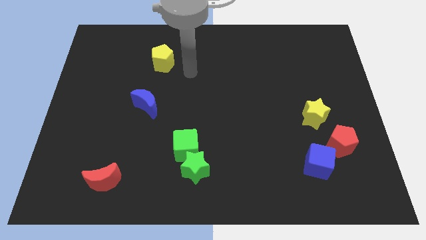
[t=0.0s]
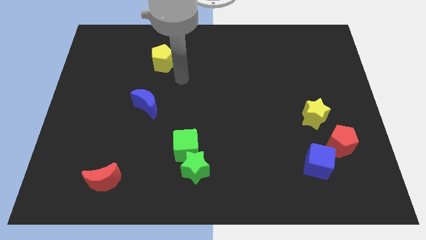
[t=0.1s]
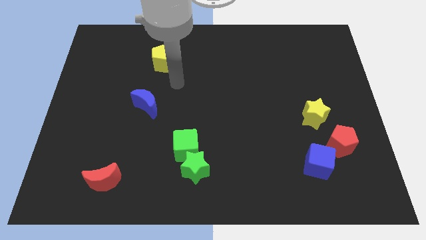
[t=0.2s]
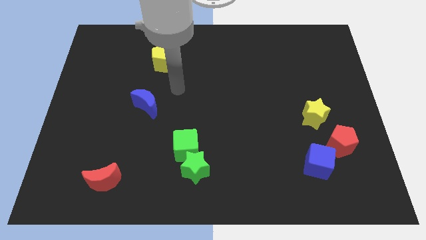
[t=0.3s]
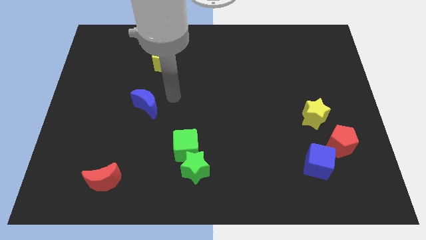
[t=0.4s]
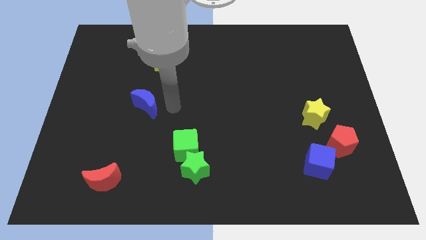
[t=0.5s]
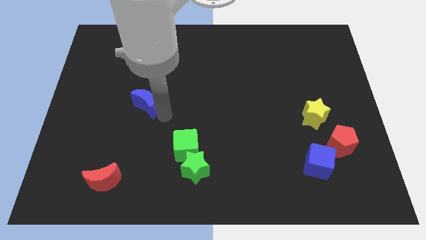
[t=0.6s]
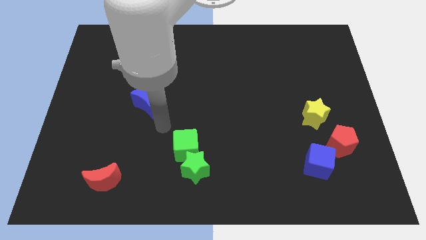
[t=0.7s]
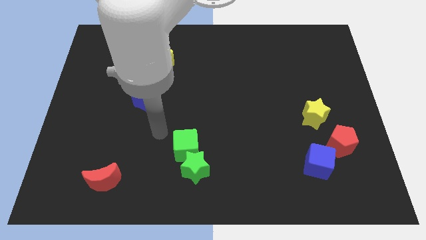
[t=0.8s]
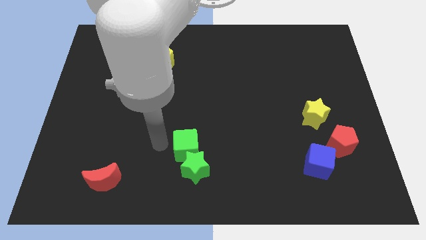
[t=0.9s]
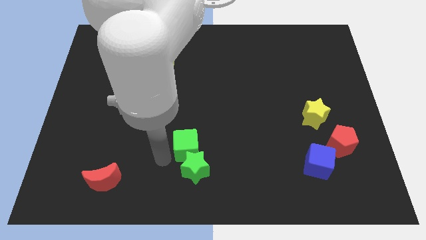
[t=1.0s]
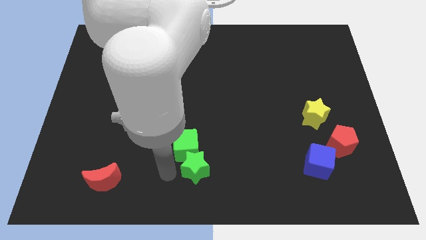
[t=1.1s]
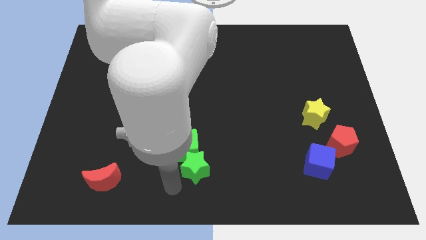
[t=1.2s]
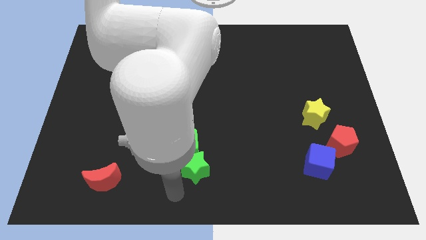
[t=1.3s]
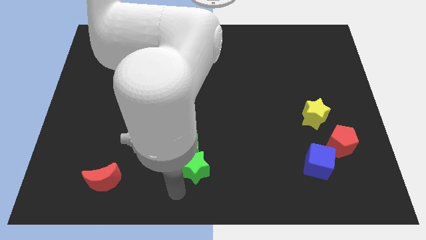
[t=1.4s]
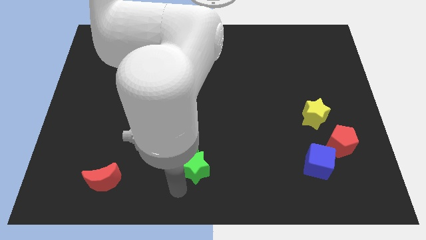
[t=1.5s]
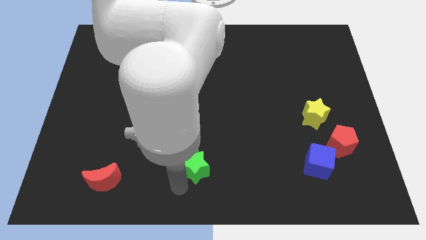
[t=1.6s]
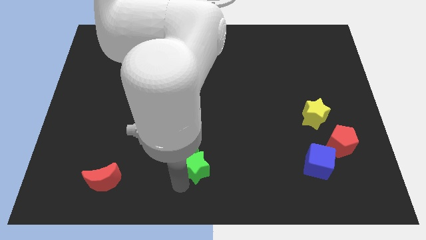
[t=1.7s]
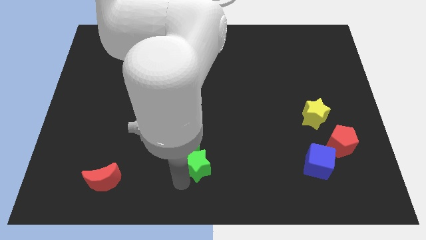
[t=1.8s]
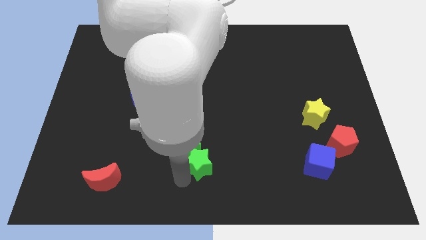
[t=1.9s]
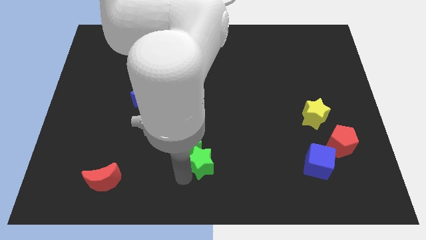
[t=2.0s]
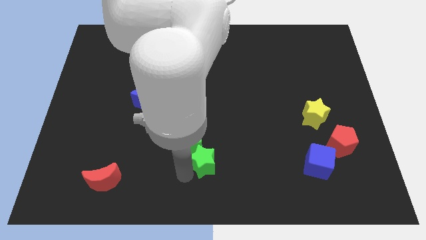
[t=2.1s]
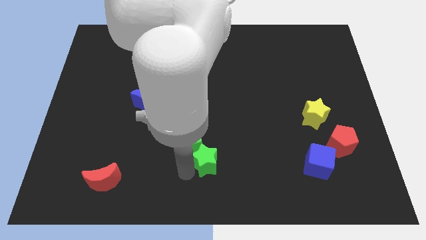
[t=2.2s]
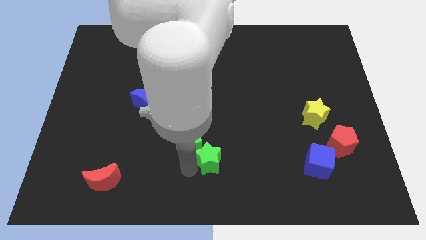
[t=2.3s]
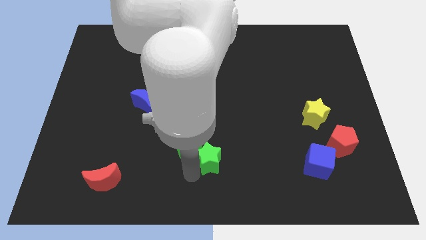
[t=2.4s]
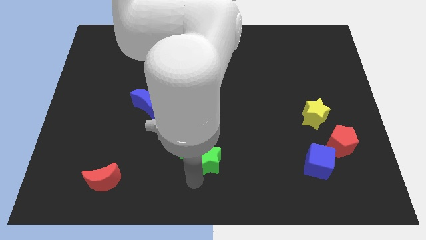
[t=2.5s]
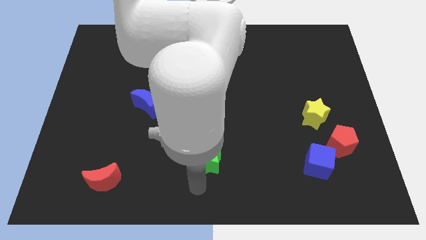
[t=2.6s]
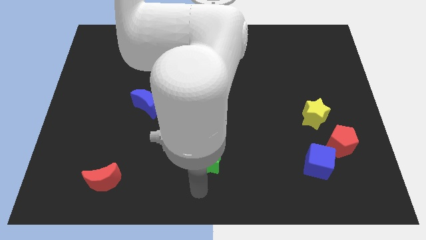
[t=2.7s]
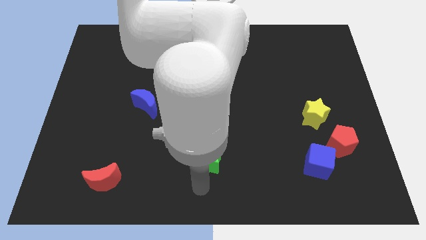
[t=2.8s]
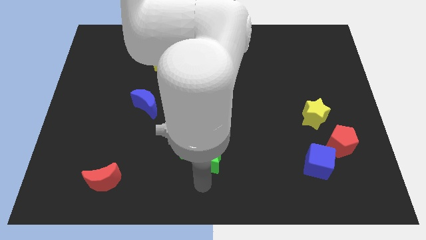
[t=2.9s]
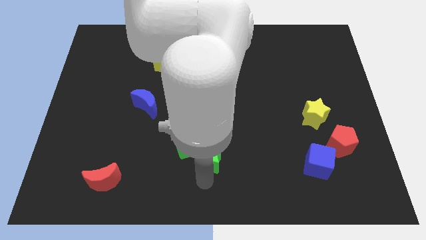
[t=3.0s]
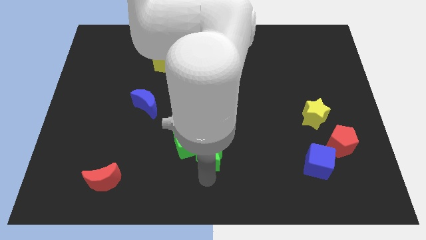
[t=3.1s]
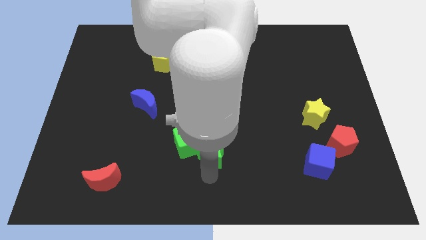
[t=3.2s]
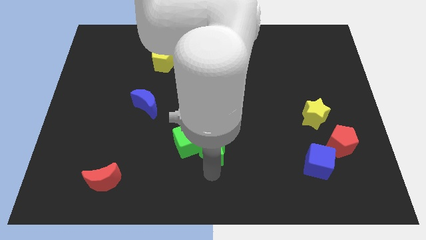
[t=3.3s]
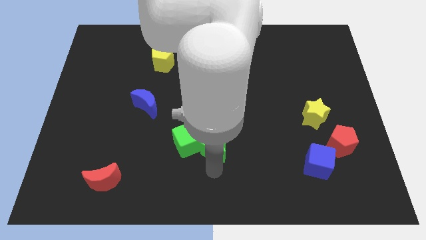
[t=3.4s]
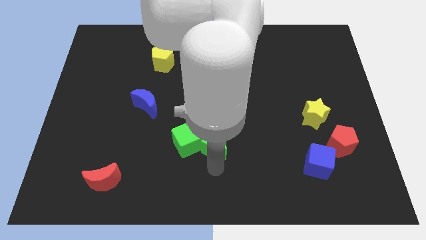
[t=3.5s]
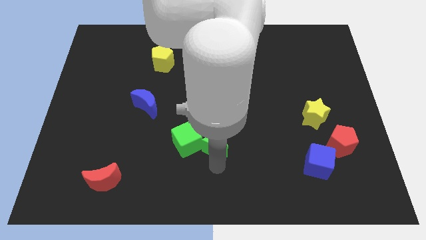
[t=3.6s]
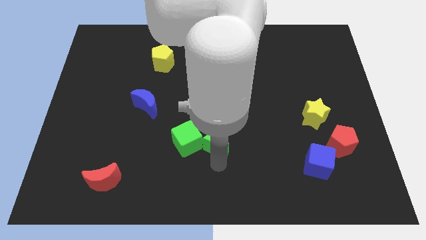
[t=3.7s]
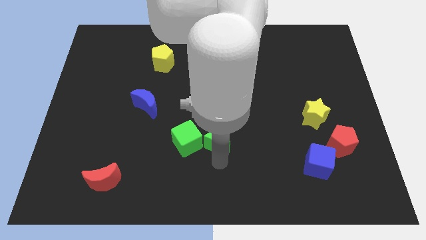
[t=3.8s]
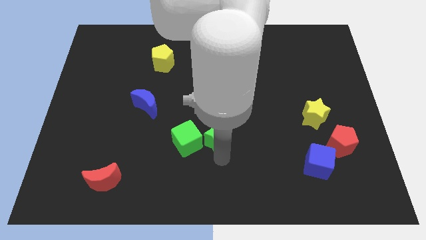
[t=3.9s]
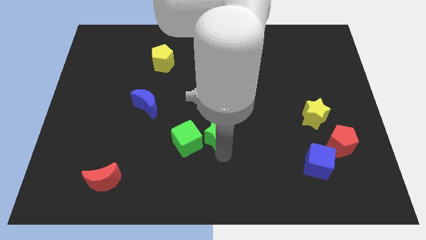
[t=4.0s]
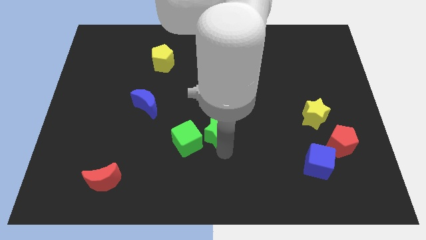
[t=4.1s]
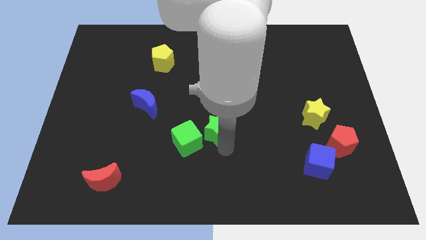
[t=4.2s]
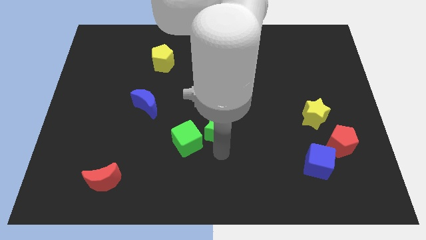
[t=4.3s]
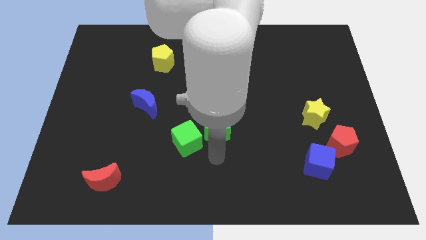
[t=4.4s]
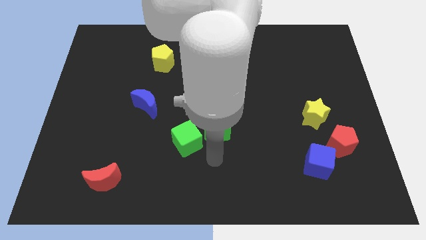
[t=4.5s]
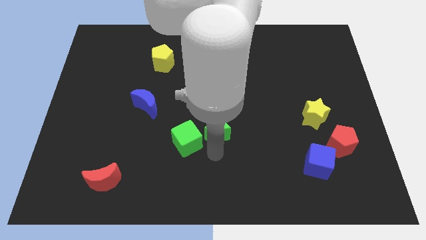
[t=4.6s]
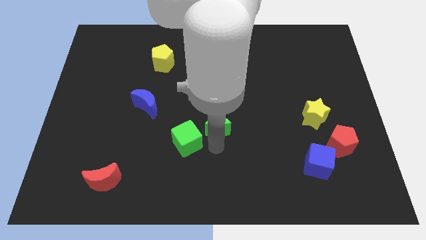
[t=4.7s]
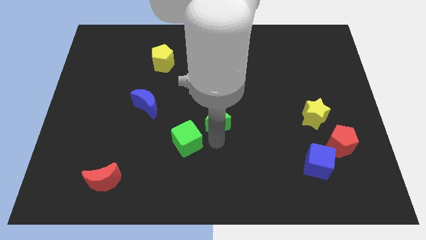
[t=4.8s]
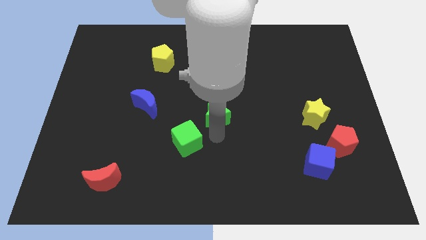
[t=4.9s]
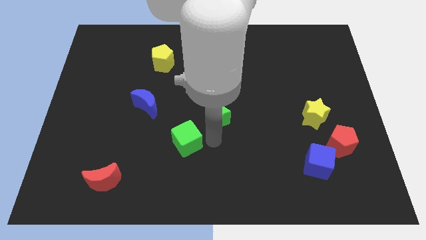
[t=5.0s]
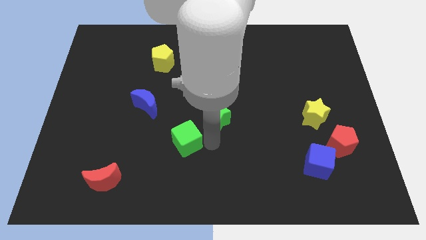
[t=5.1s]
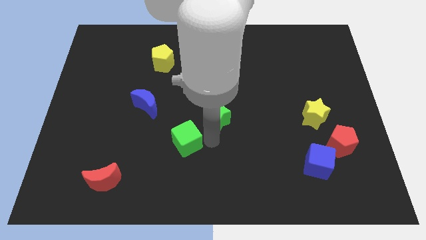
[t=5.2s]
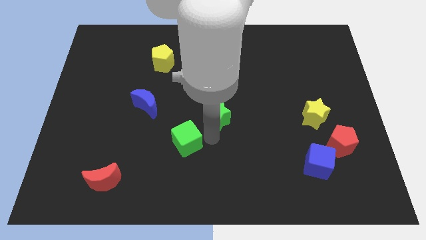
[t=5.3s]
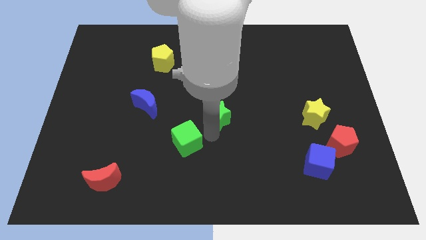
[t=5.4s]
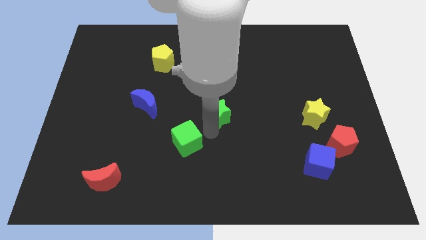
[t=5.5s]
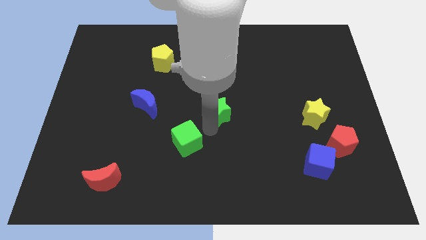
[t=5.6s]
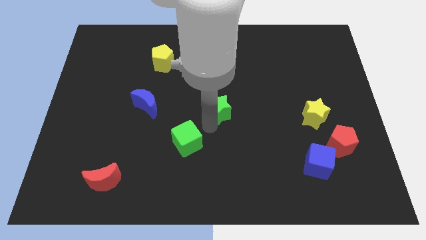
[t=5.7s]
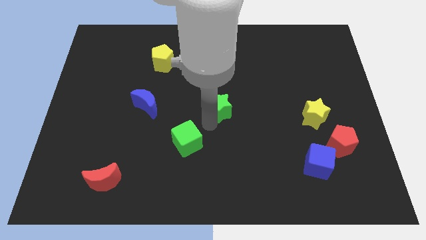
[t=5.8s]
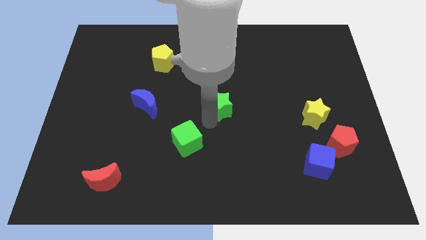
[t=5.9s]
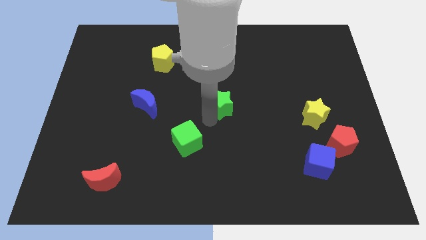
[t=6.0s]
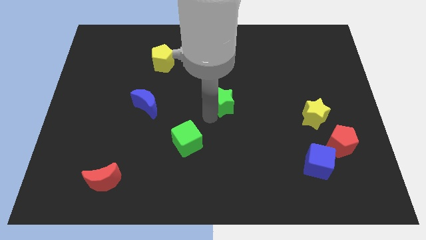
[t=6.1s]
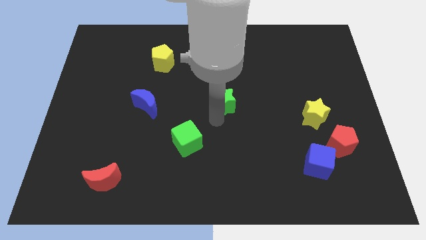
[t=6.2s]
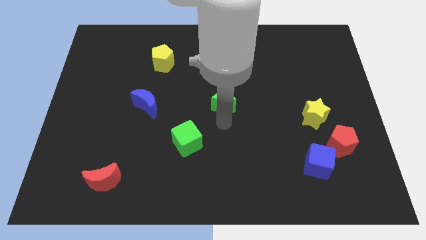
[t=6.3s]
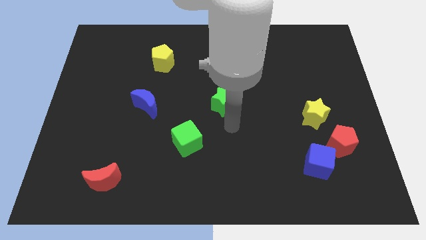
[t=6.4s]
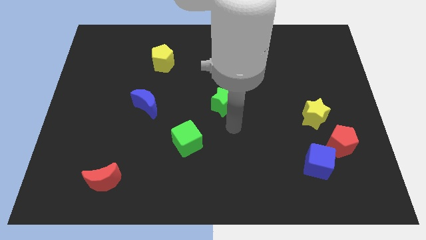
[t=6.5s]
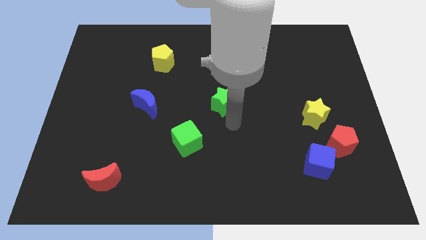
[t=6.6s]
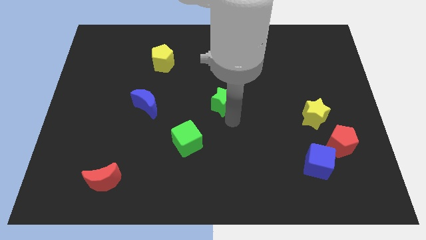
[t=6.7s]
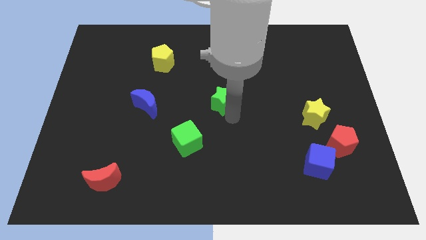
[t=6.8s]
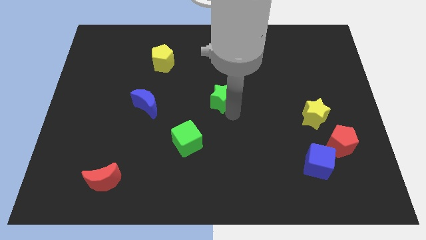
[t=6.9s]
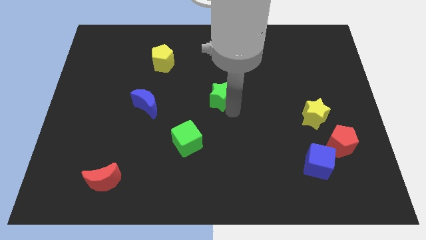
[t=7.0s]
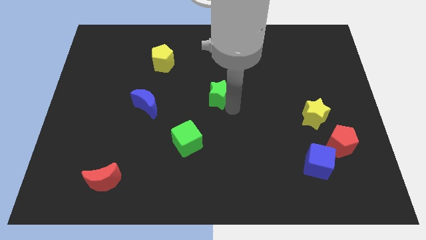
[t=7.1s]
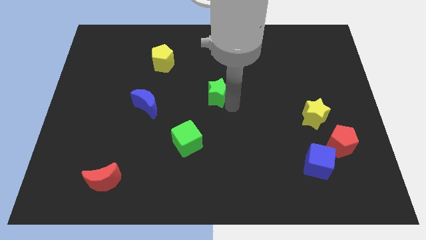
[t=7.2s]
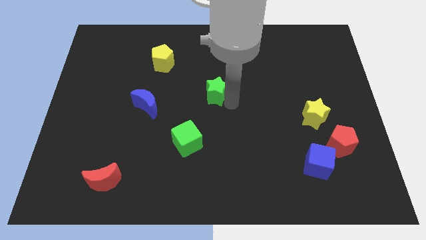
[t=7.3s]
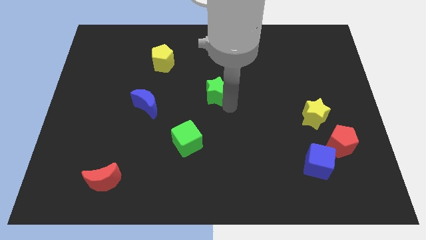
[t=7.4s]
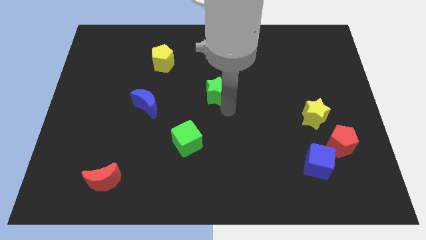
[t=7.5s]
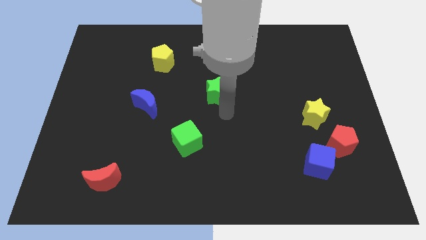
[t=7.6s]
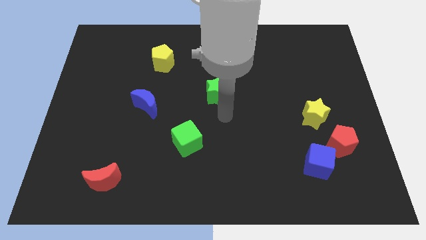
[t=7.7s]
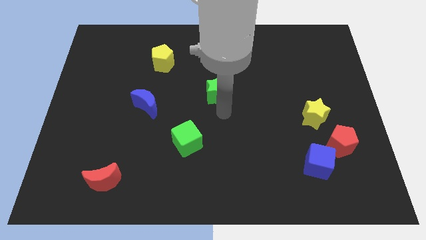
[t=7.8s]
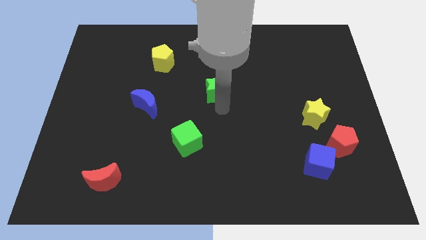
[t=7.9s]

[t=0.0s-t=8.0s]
push the green star up
